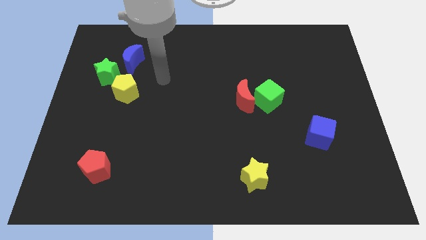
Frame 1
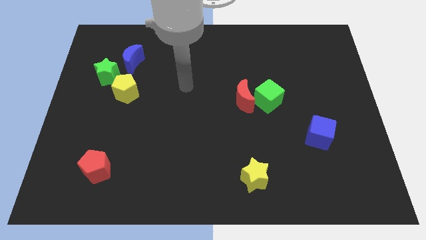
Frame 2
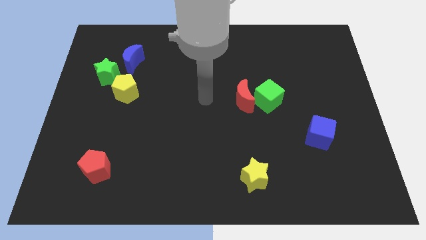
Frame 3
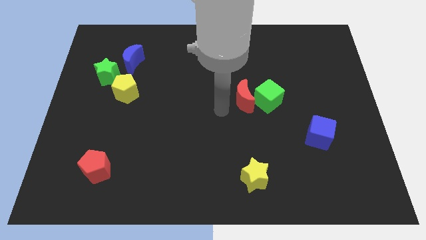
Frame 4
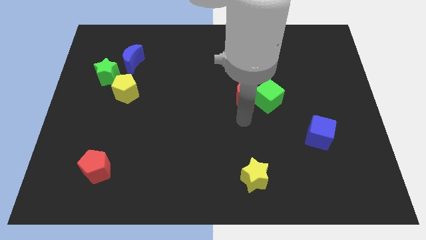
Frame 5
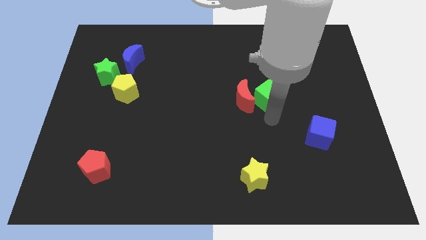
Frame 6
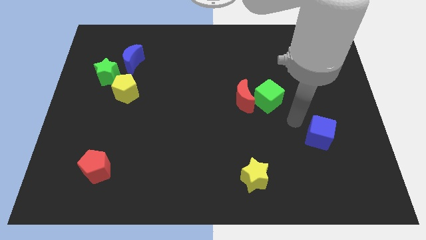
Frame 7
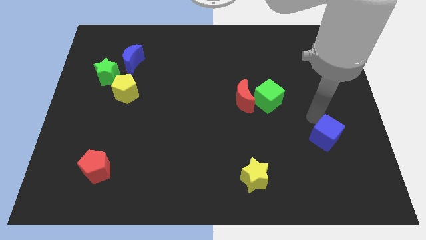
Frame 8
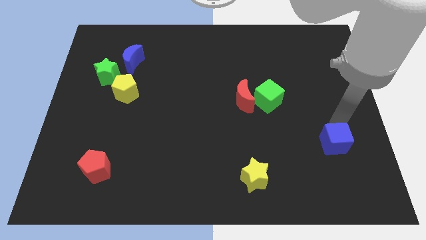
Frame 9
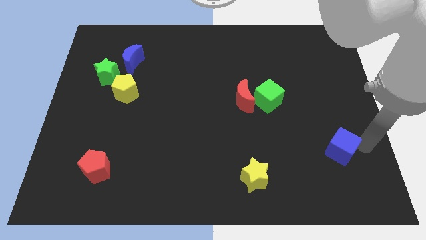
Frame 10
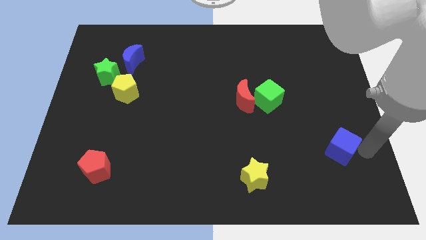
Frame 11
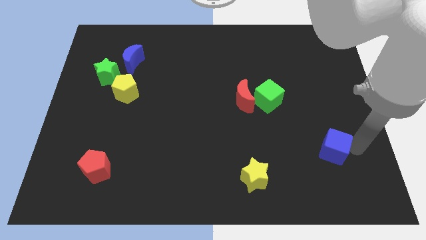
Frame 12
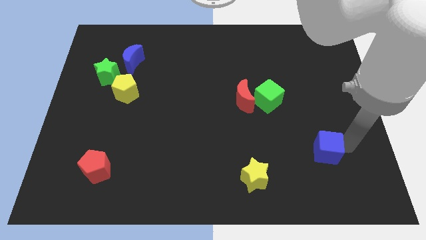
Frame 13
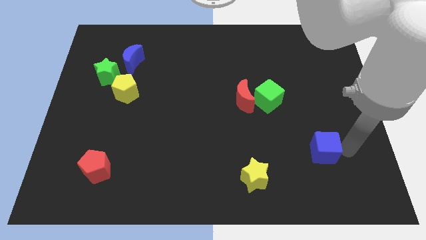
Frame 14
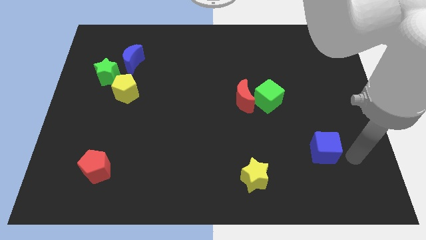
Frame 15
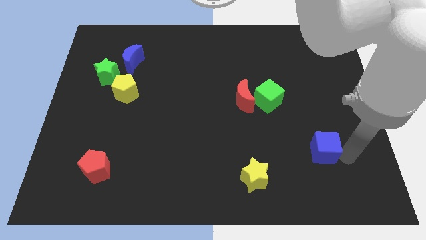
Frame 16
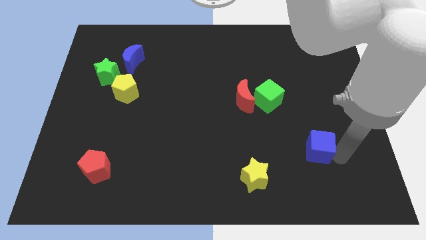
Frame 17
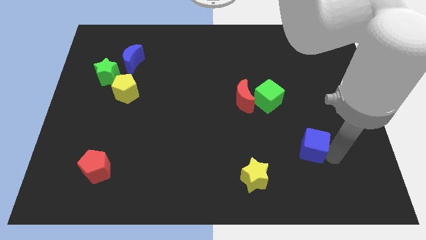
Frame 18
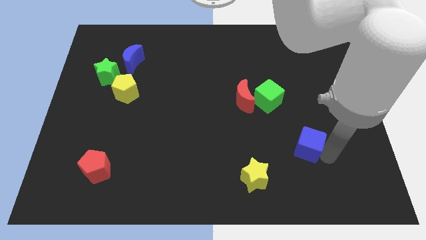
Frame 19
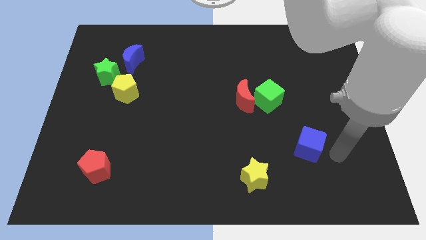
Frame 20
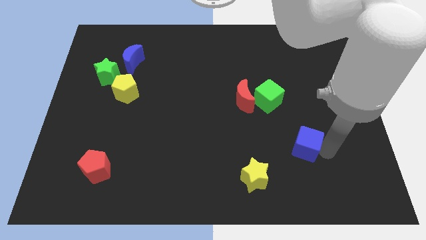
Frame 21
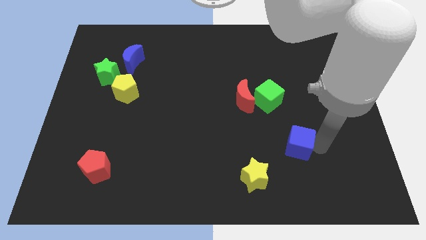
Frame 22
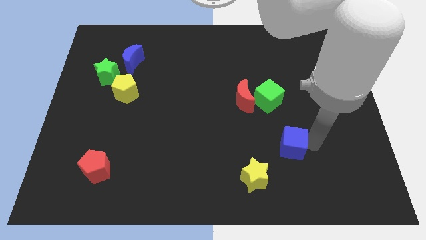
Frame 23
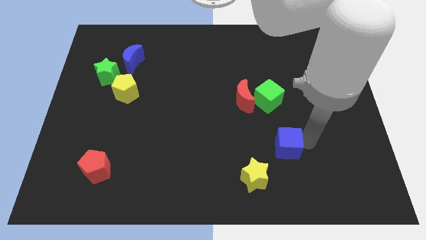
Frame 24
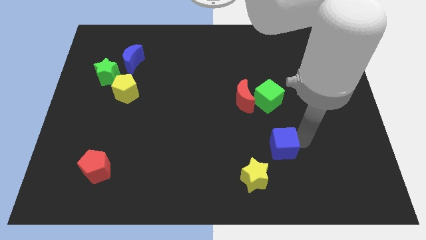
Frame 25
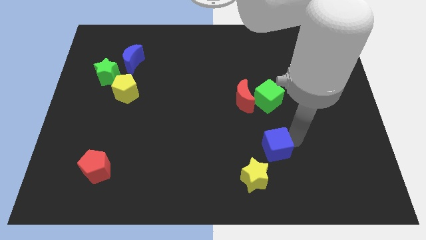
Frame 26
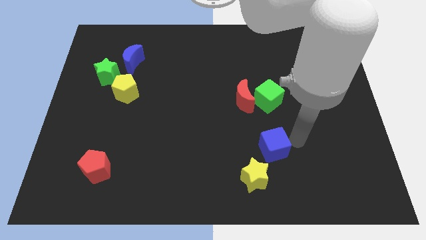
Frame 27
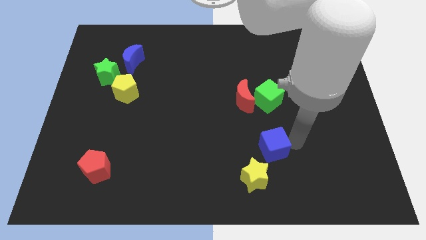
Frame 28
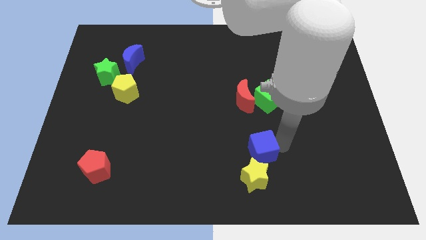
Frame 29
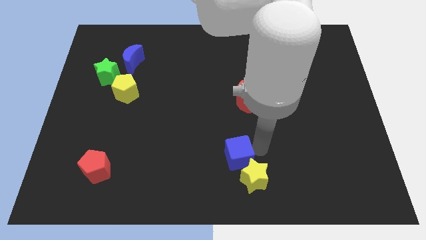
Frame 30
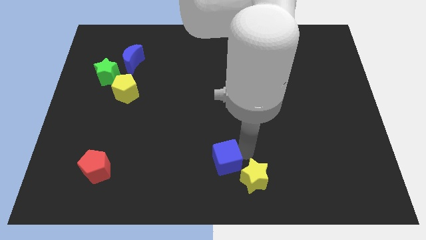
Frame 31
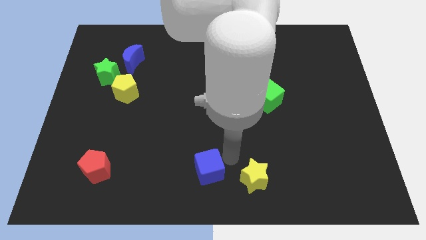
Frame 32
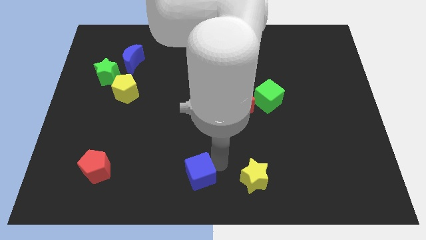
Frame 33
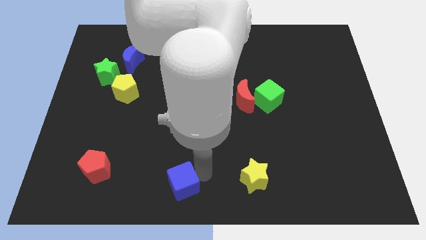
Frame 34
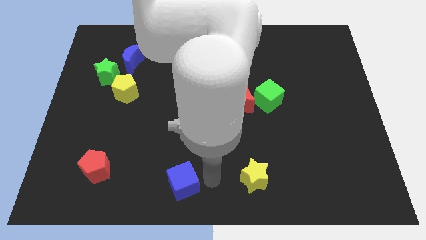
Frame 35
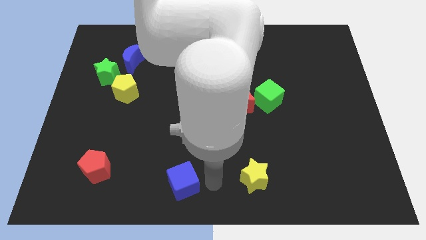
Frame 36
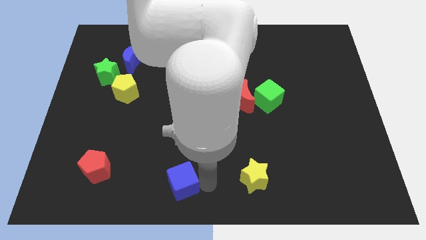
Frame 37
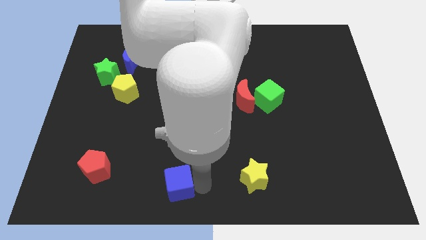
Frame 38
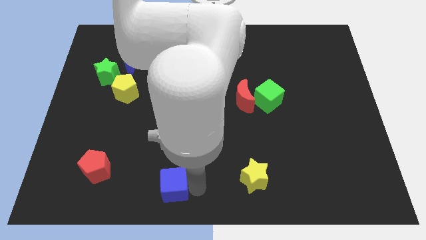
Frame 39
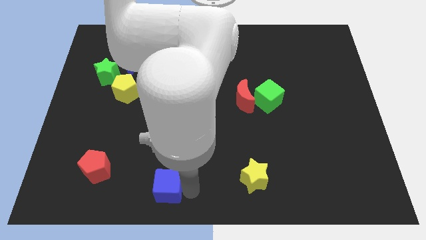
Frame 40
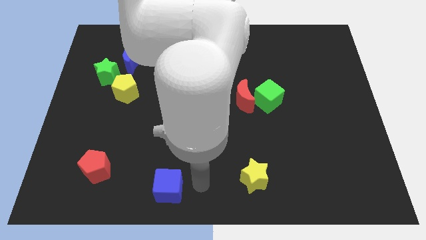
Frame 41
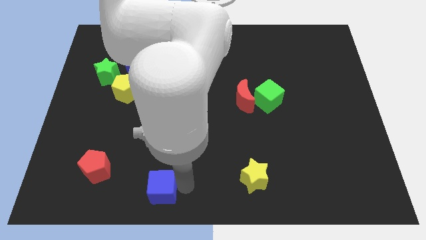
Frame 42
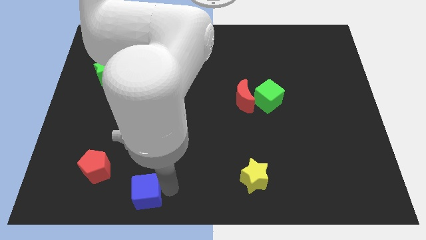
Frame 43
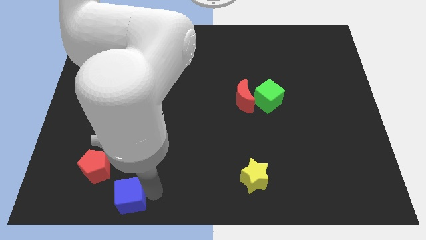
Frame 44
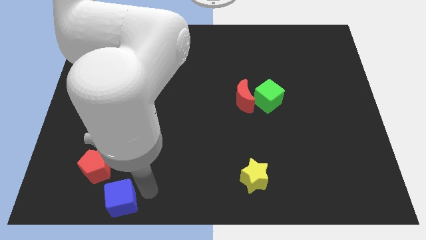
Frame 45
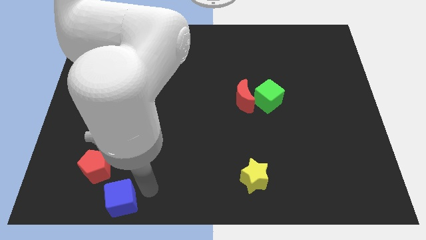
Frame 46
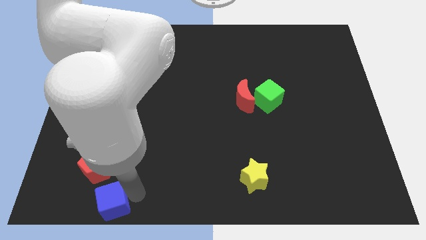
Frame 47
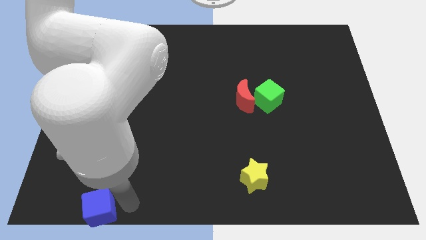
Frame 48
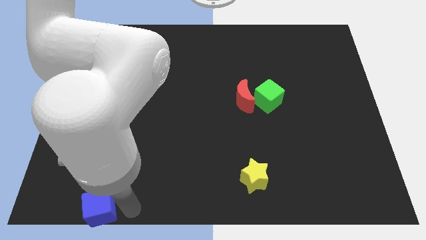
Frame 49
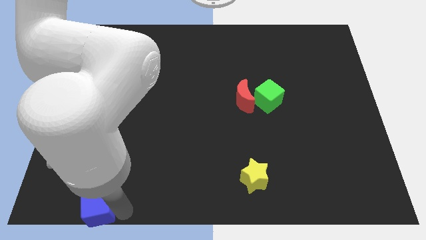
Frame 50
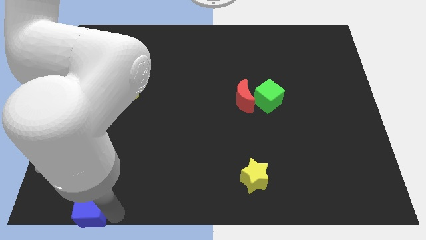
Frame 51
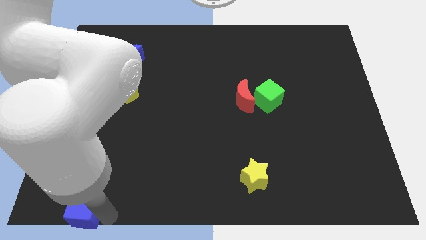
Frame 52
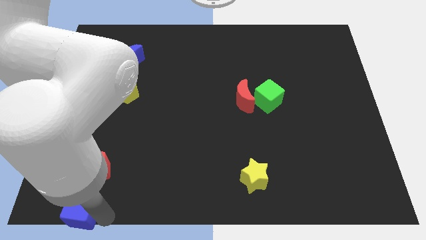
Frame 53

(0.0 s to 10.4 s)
push the blue cube to the bottom left corner

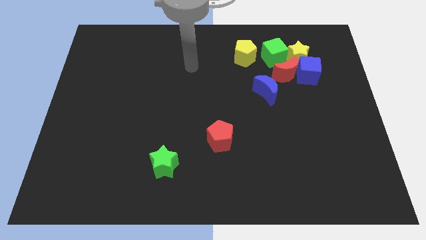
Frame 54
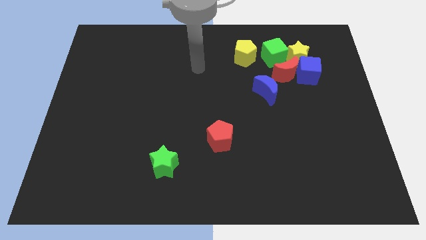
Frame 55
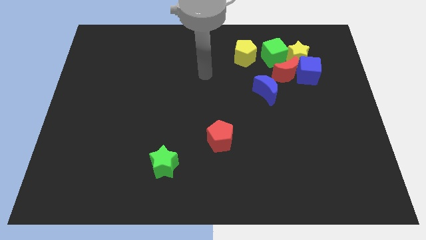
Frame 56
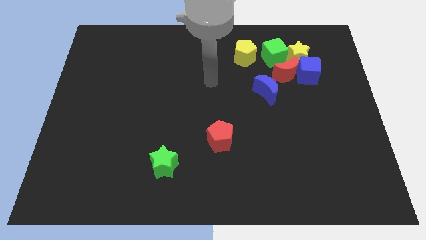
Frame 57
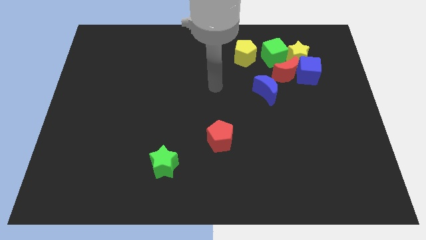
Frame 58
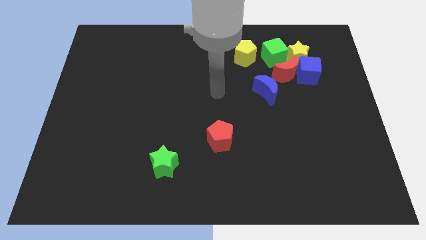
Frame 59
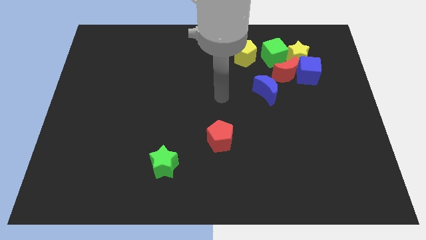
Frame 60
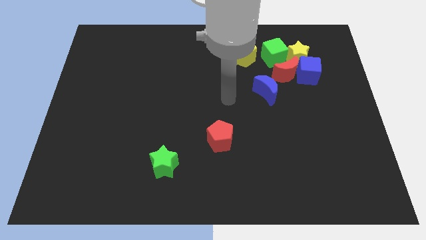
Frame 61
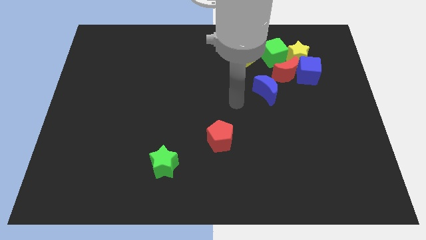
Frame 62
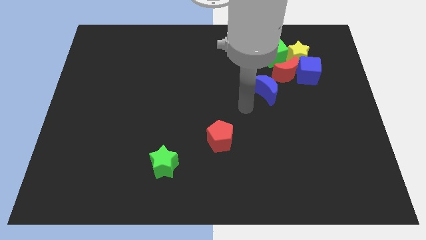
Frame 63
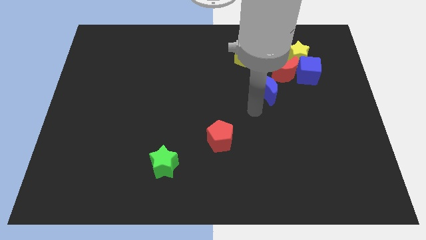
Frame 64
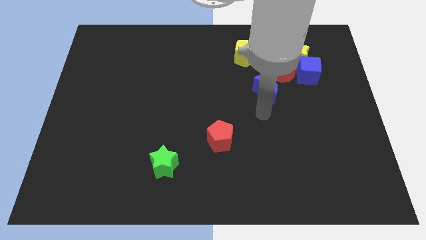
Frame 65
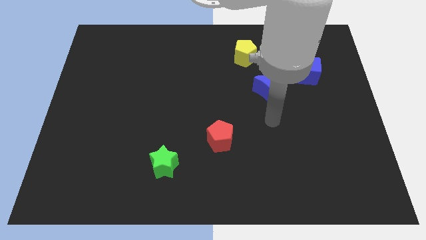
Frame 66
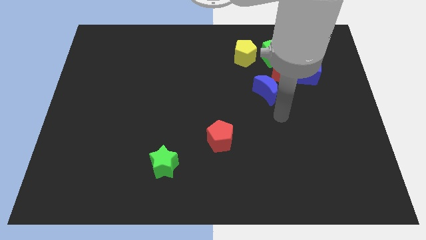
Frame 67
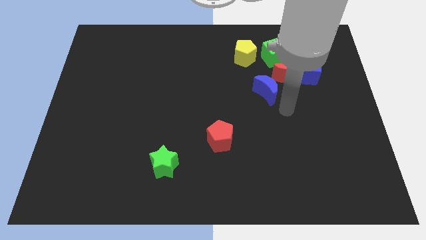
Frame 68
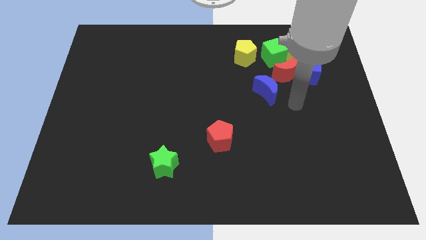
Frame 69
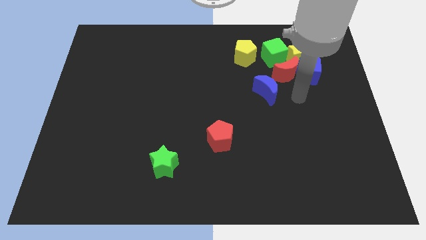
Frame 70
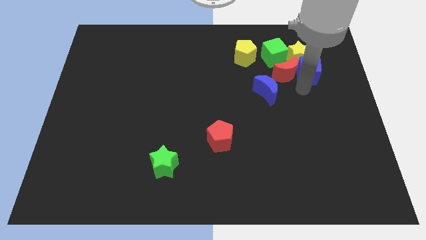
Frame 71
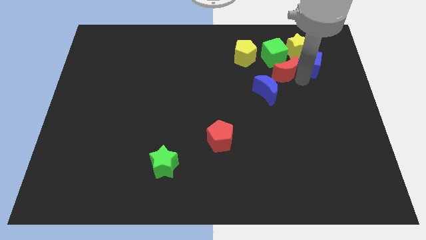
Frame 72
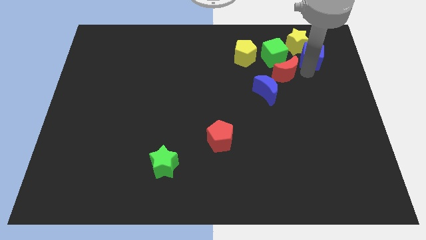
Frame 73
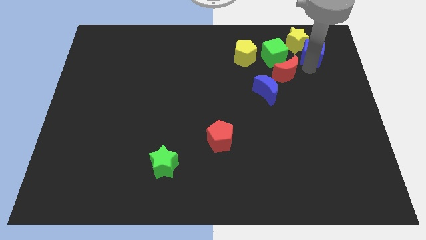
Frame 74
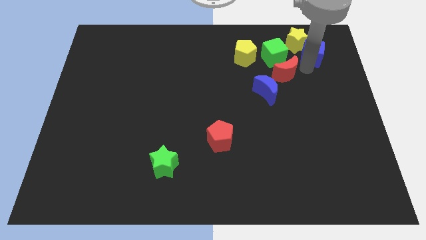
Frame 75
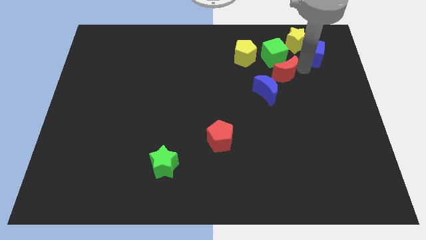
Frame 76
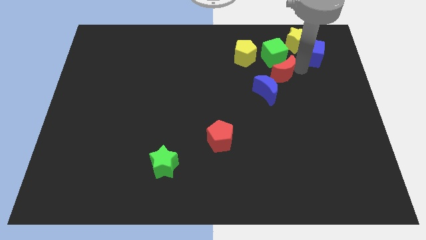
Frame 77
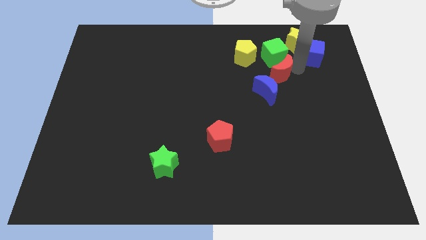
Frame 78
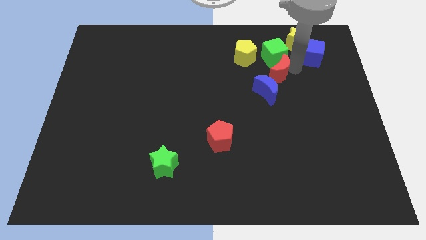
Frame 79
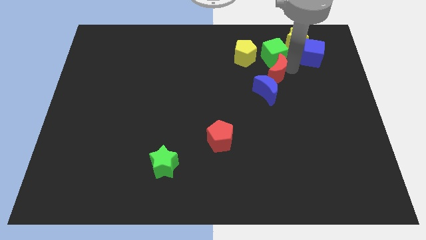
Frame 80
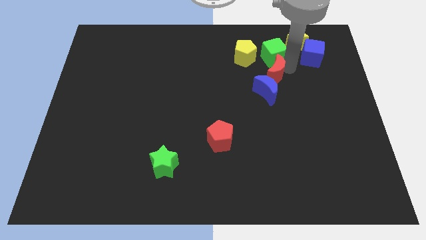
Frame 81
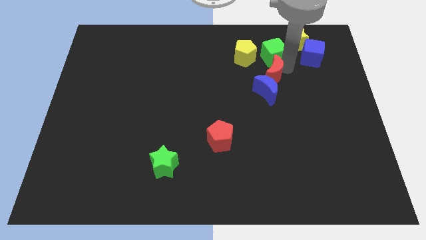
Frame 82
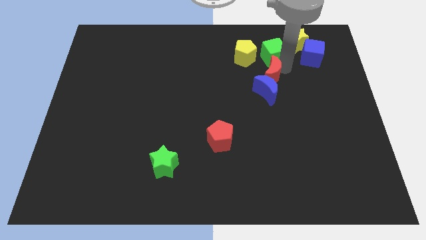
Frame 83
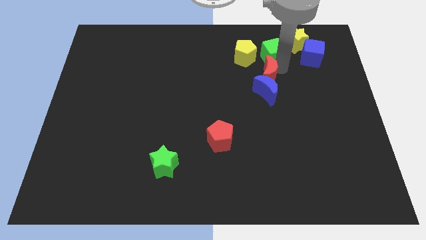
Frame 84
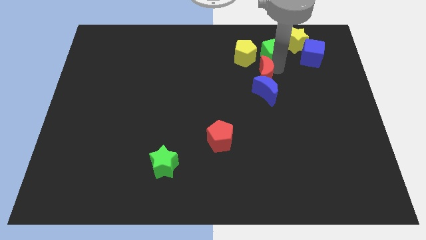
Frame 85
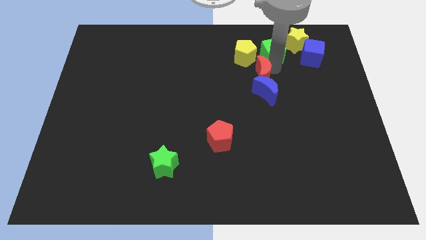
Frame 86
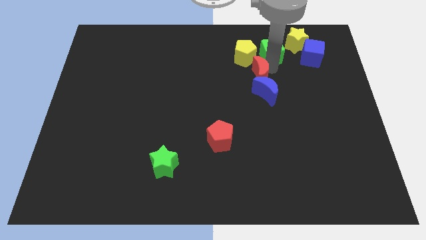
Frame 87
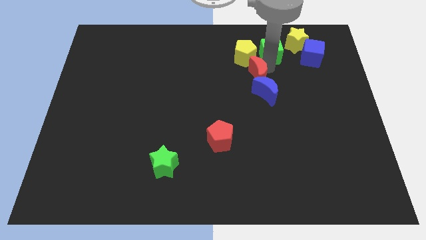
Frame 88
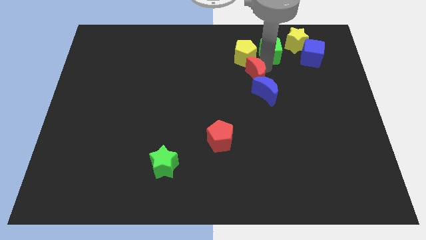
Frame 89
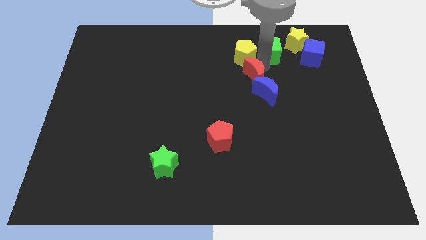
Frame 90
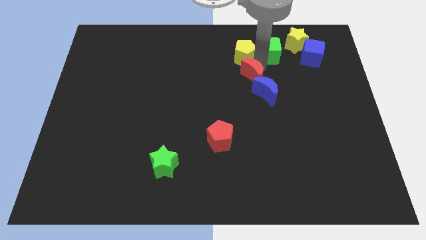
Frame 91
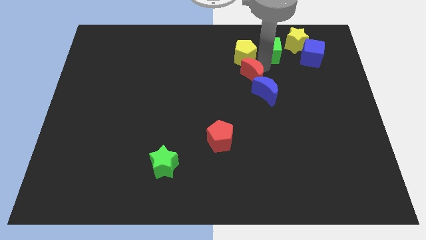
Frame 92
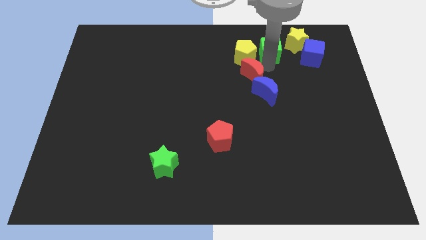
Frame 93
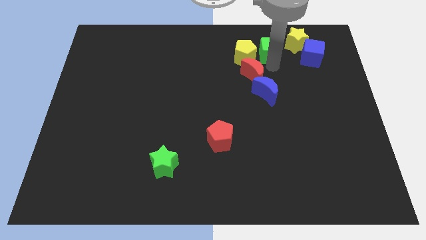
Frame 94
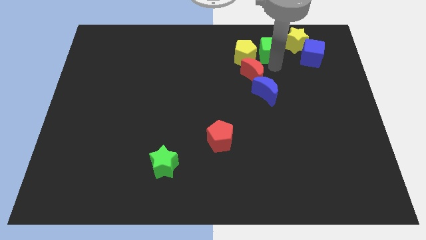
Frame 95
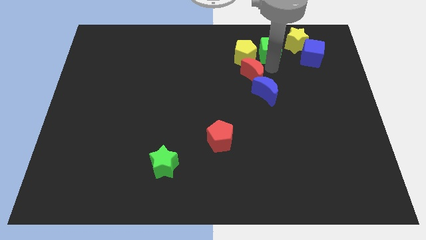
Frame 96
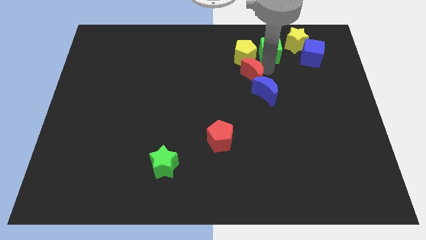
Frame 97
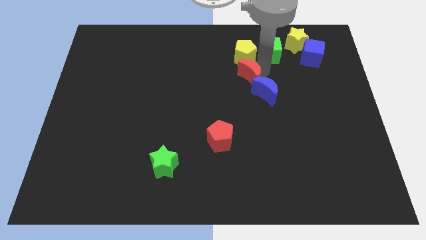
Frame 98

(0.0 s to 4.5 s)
put the red moon to the center
